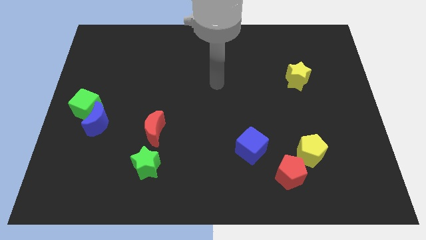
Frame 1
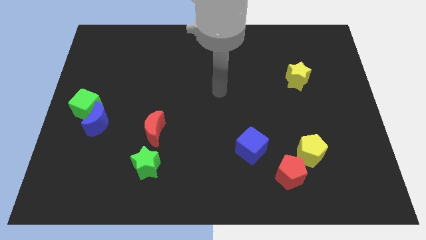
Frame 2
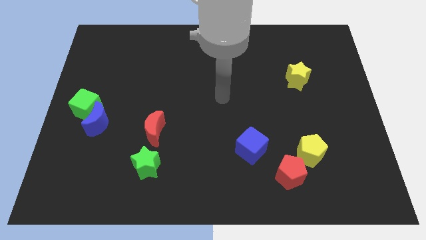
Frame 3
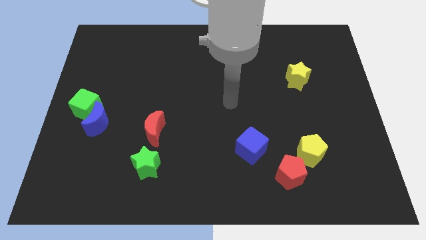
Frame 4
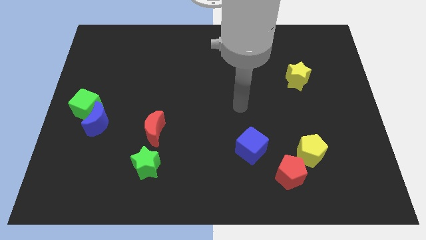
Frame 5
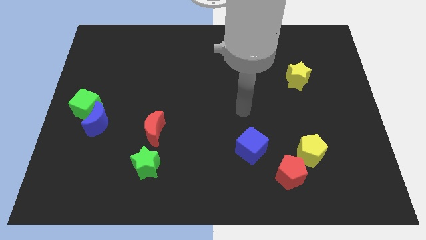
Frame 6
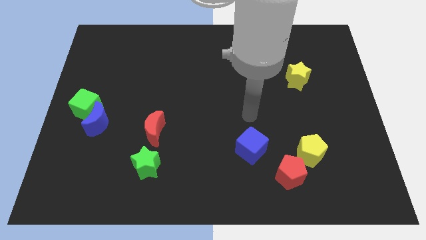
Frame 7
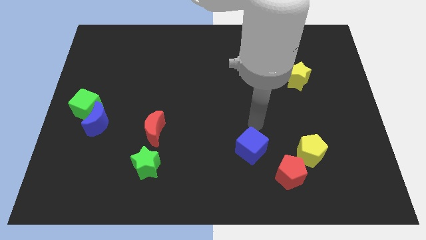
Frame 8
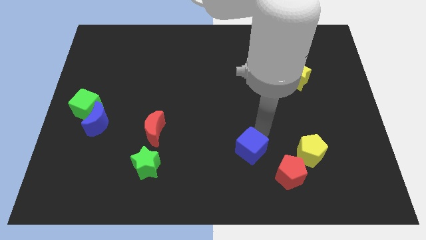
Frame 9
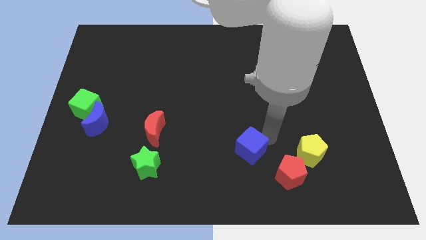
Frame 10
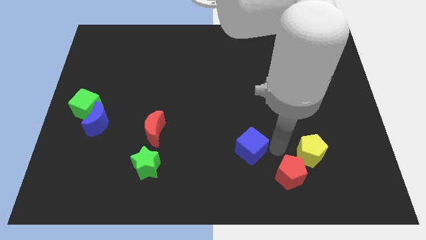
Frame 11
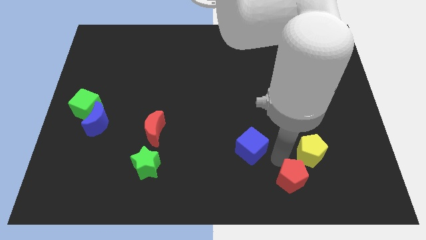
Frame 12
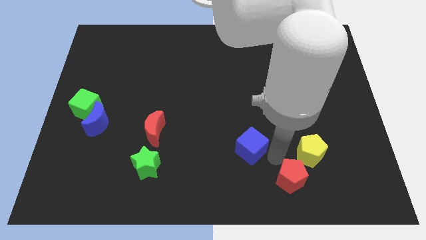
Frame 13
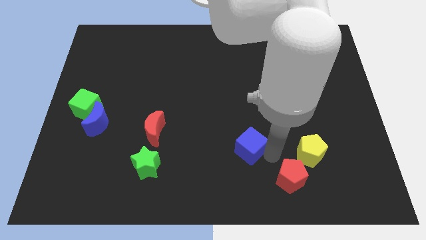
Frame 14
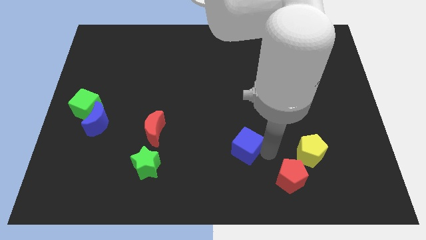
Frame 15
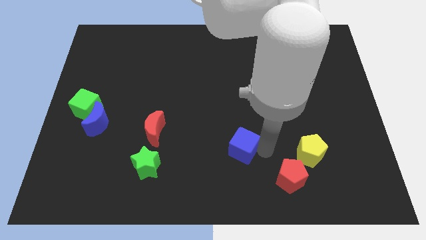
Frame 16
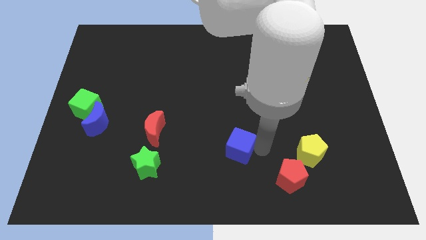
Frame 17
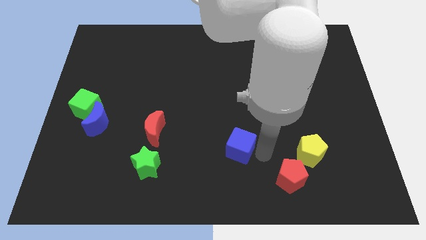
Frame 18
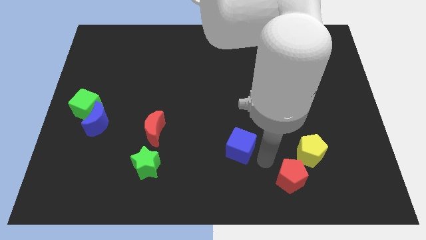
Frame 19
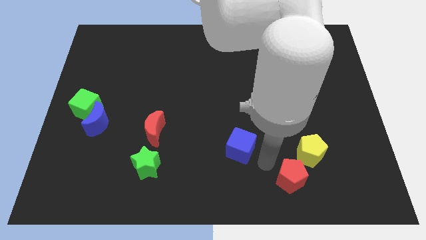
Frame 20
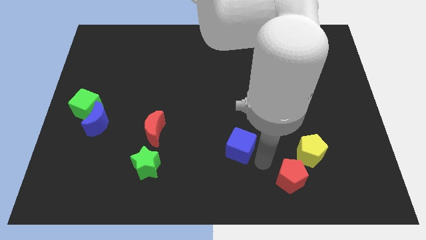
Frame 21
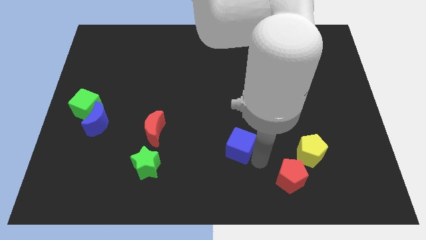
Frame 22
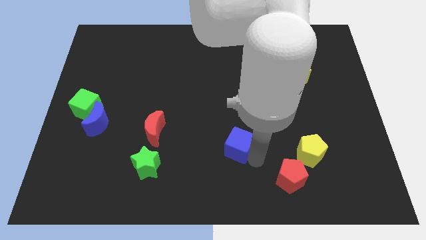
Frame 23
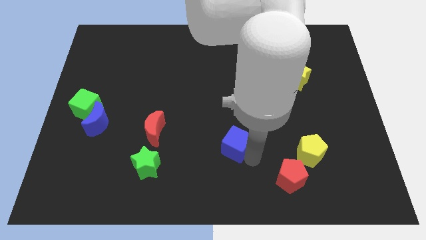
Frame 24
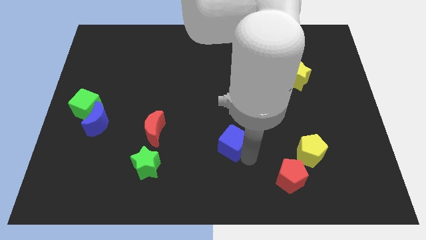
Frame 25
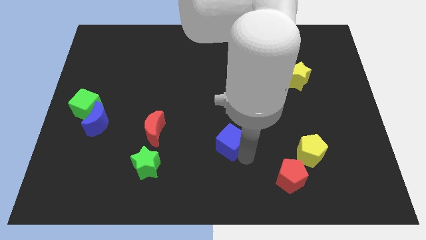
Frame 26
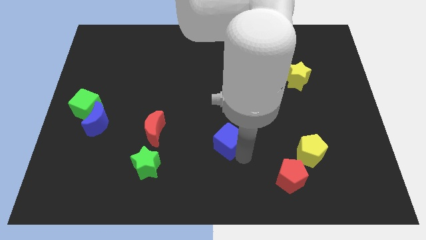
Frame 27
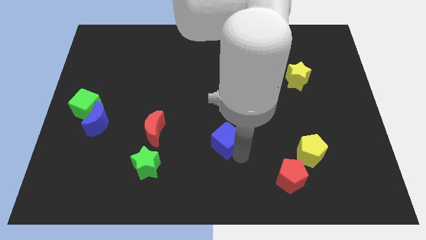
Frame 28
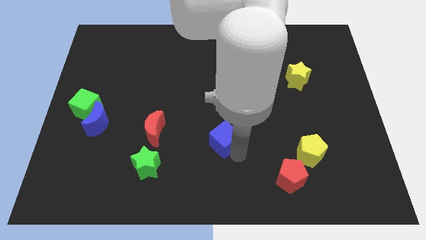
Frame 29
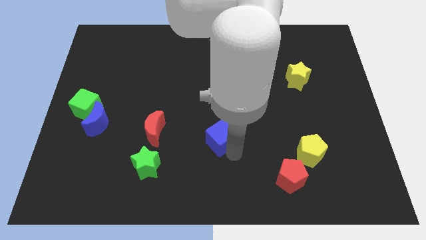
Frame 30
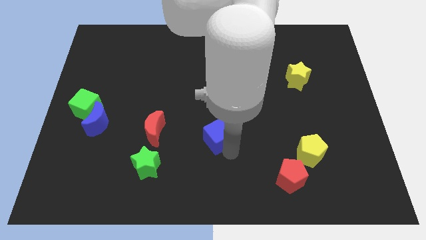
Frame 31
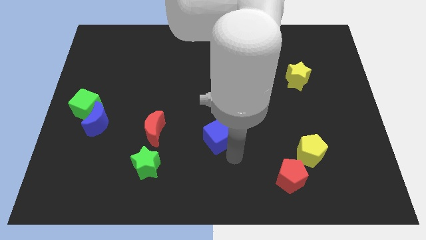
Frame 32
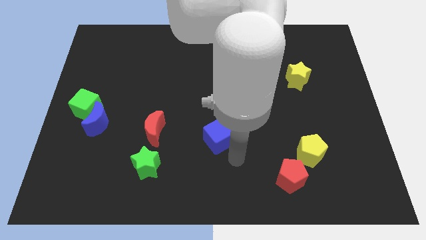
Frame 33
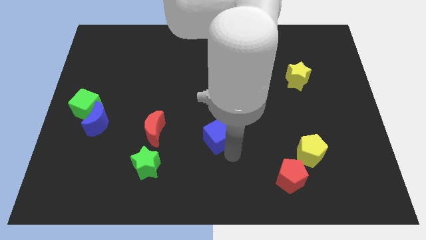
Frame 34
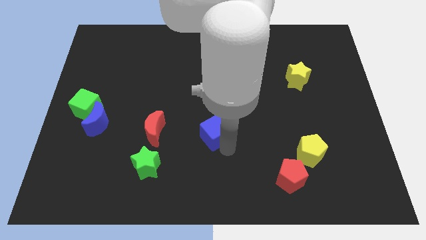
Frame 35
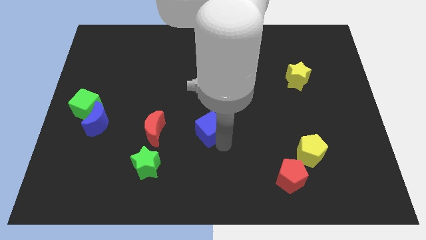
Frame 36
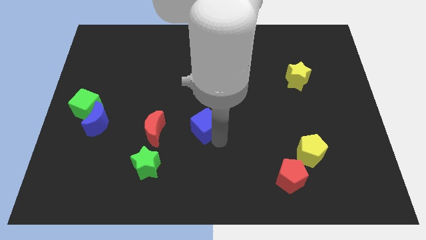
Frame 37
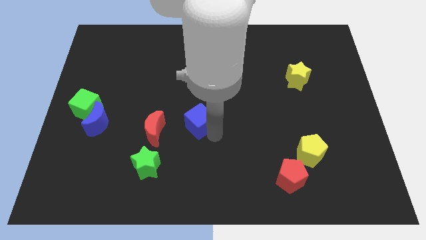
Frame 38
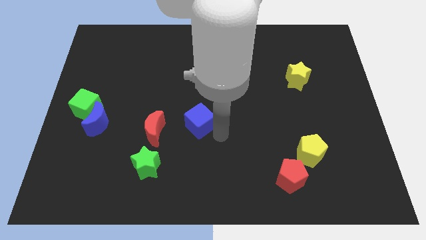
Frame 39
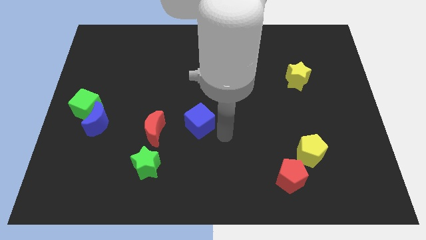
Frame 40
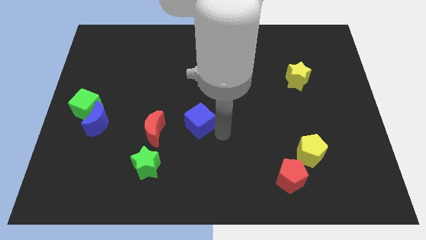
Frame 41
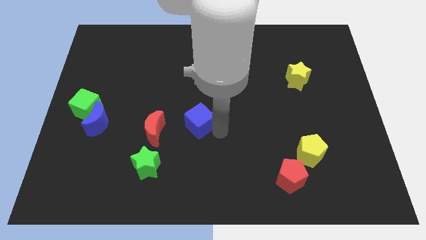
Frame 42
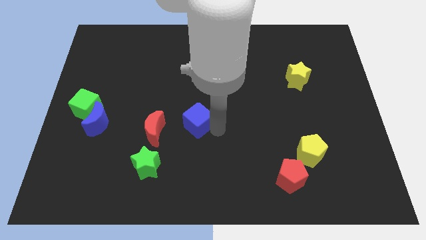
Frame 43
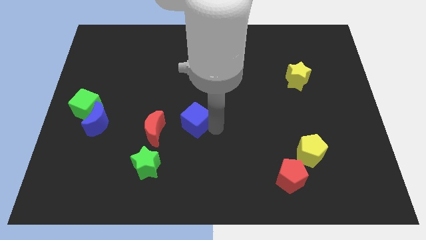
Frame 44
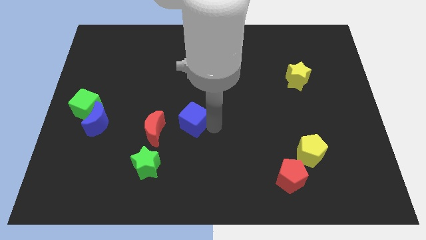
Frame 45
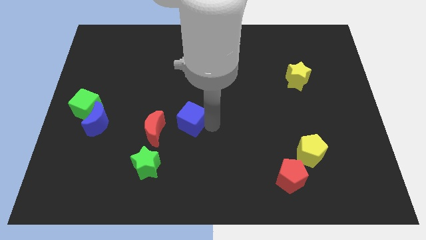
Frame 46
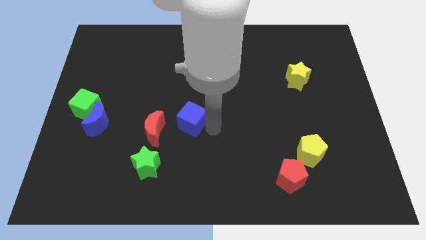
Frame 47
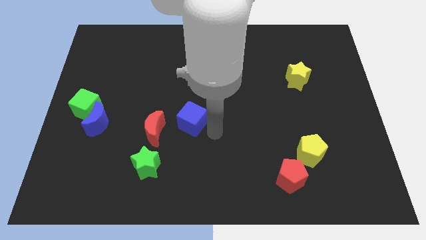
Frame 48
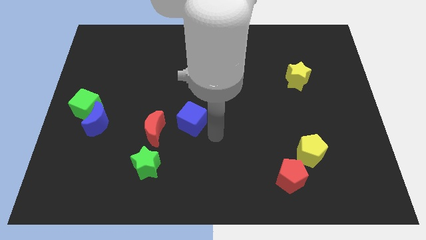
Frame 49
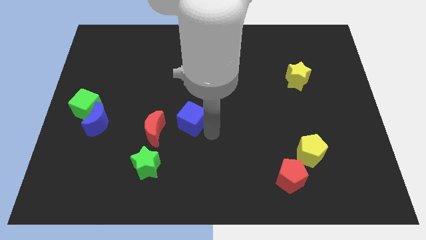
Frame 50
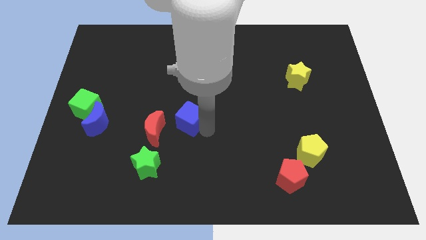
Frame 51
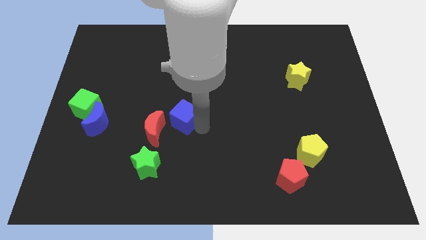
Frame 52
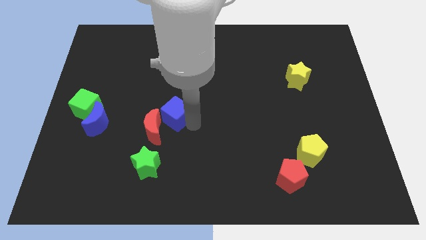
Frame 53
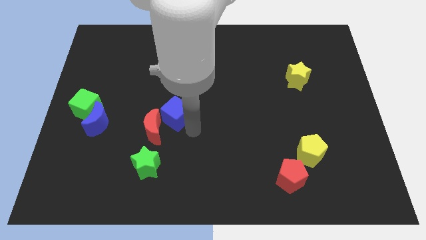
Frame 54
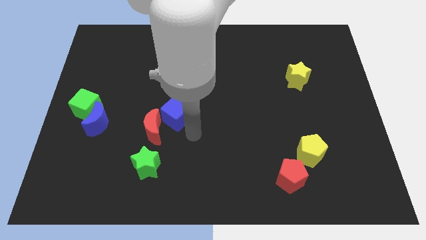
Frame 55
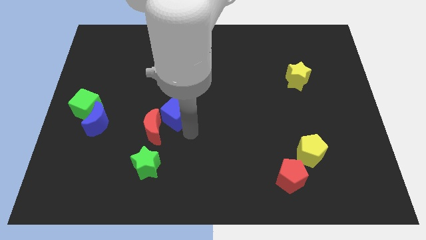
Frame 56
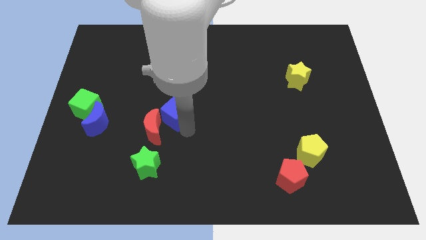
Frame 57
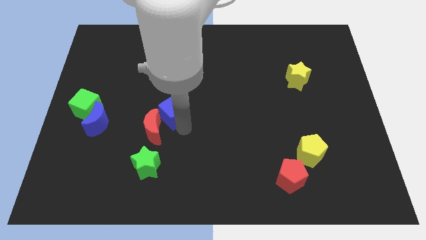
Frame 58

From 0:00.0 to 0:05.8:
push the blue cube above the red moon

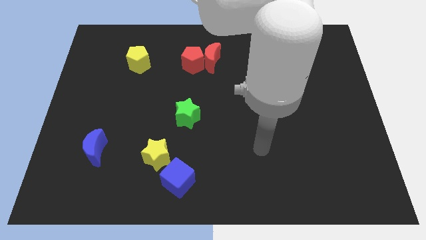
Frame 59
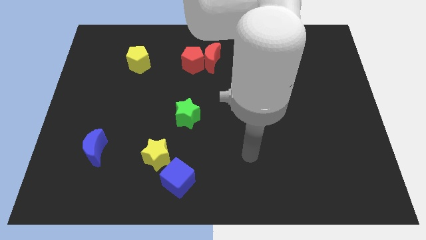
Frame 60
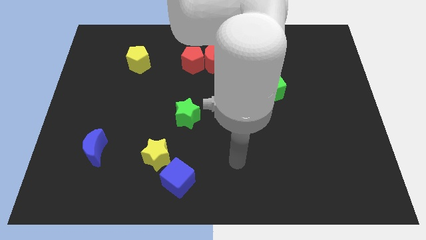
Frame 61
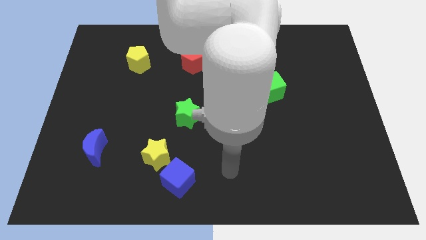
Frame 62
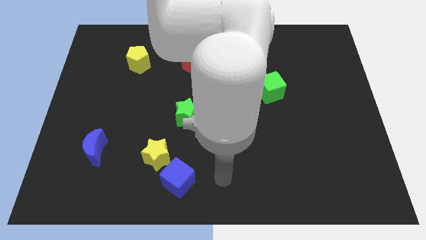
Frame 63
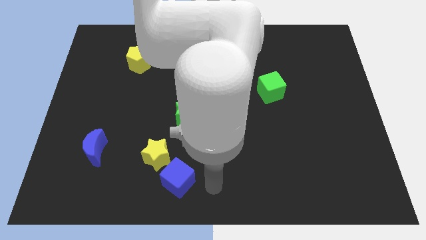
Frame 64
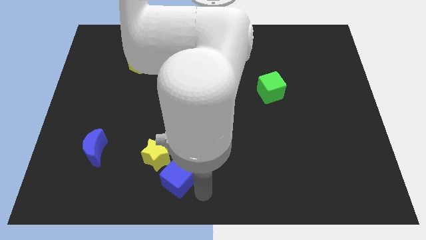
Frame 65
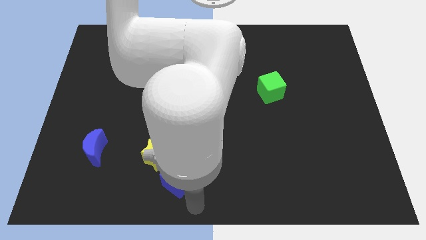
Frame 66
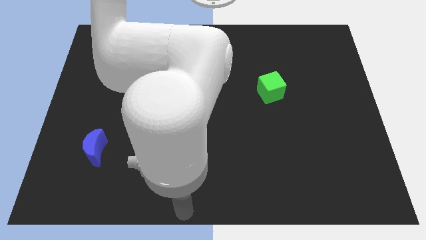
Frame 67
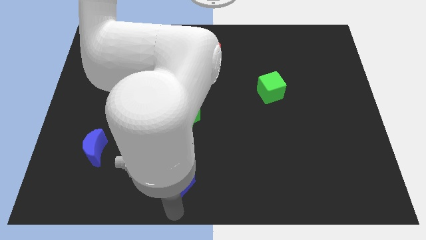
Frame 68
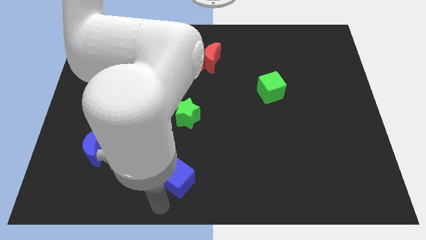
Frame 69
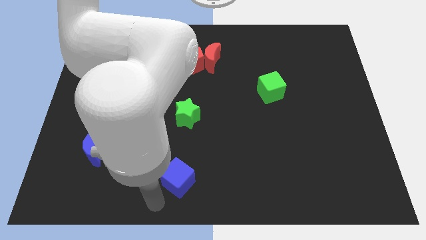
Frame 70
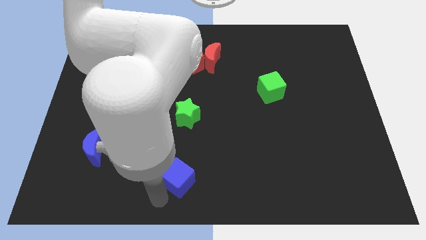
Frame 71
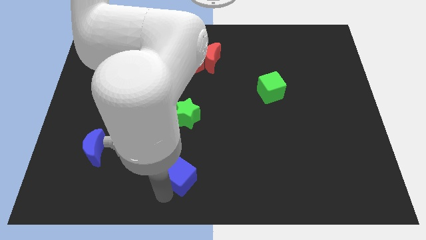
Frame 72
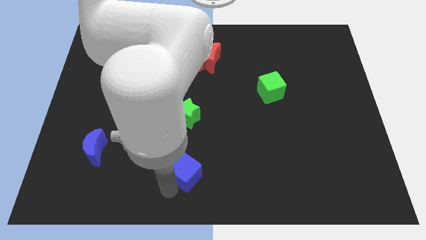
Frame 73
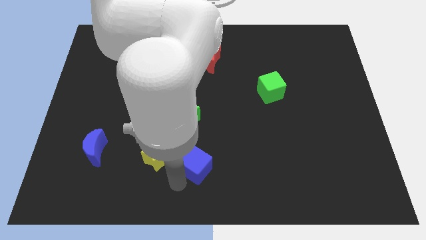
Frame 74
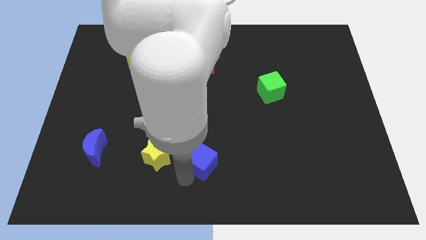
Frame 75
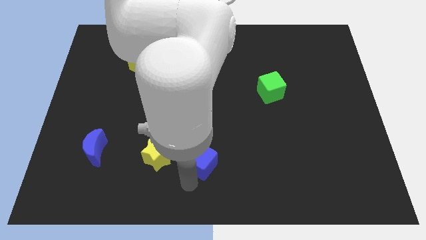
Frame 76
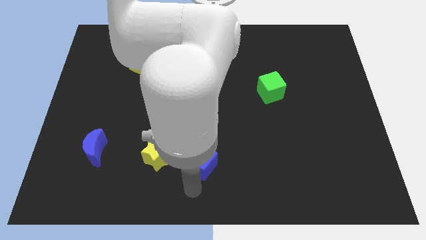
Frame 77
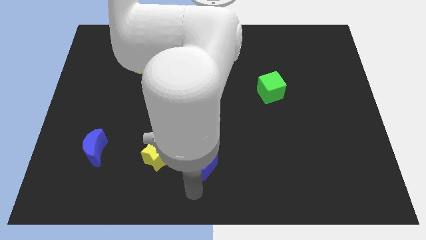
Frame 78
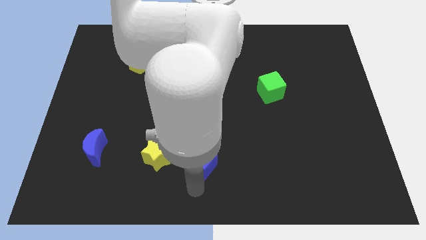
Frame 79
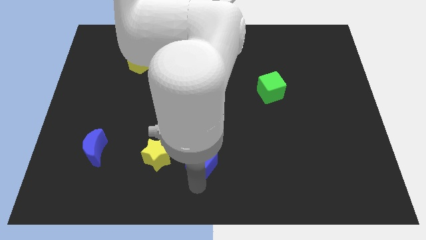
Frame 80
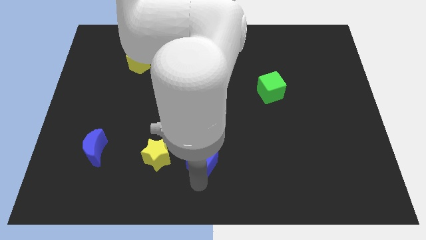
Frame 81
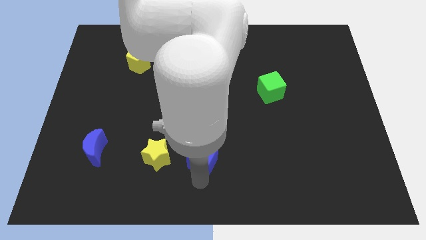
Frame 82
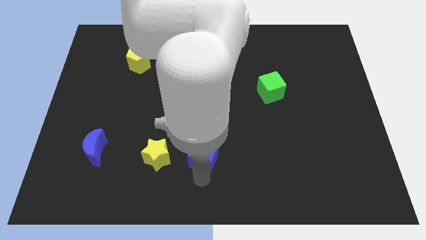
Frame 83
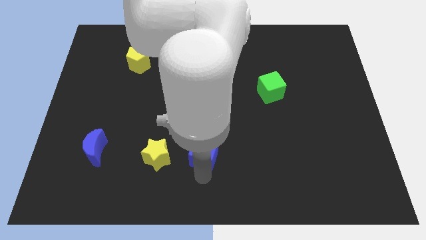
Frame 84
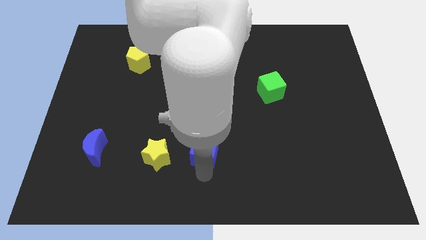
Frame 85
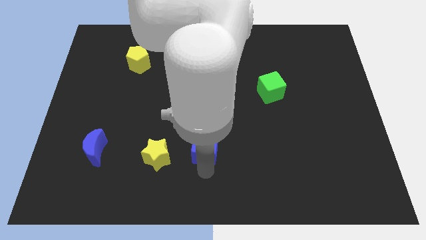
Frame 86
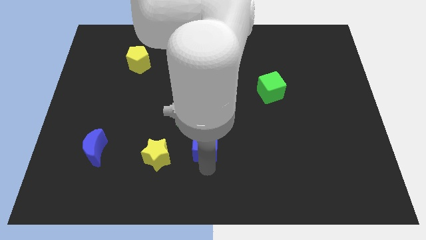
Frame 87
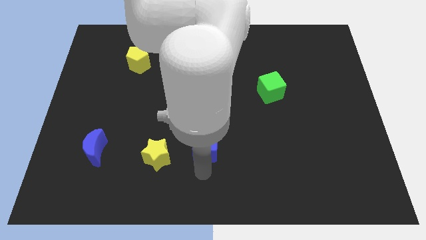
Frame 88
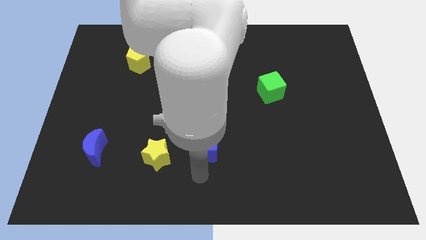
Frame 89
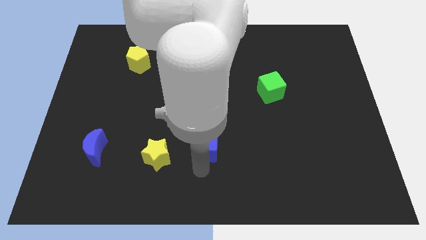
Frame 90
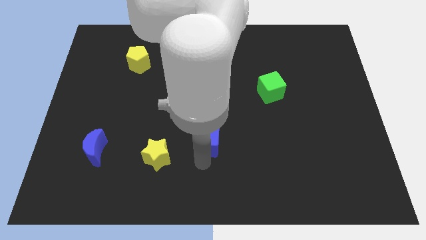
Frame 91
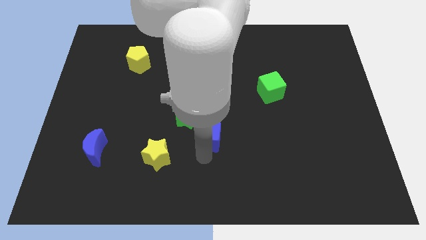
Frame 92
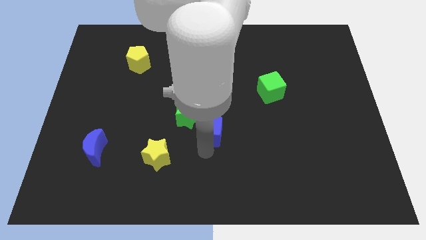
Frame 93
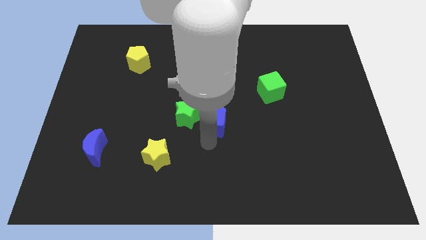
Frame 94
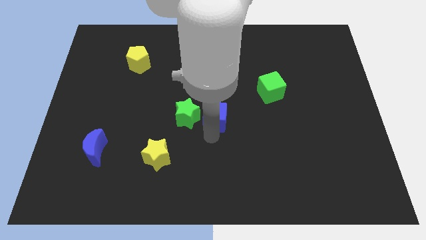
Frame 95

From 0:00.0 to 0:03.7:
move the blue cube to the top right of the green star
